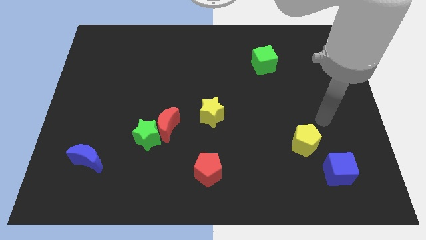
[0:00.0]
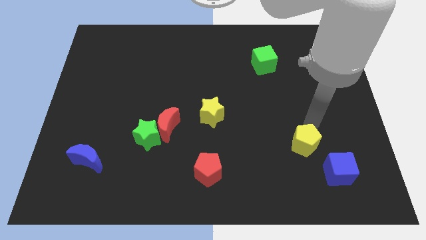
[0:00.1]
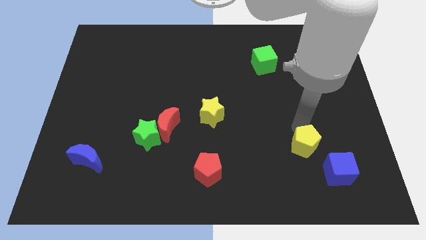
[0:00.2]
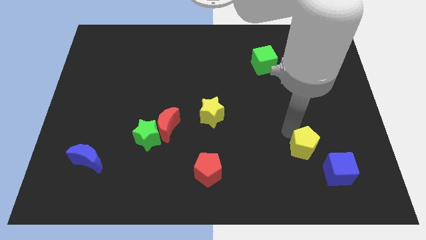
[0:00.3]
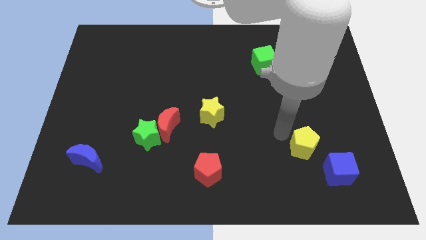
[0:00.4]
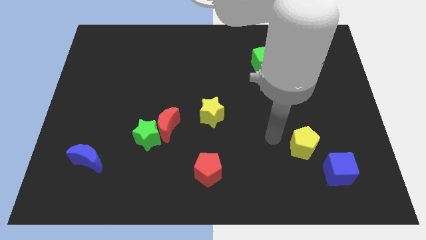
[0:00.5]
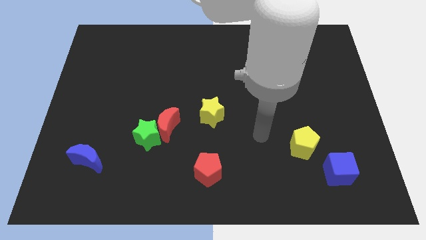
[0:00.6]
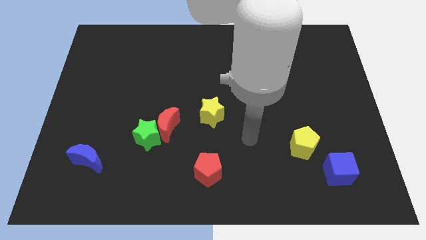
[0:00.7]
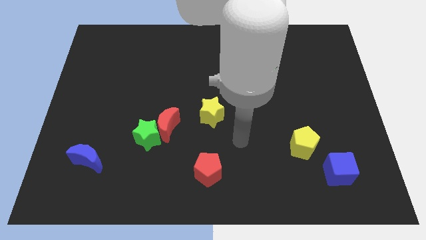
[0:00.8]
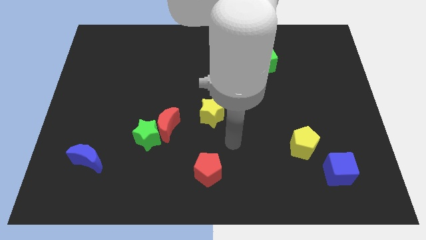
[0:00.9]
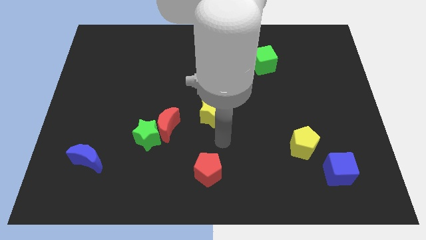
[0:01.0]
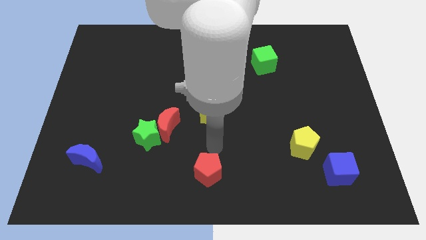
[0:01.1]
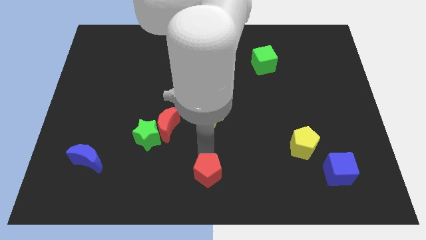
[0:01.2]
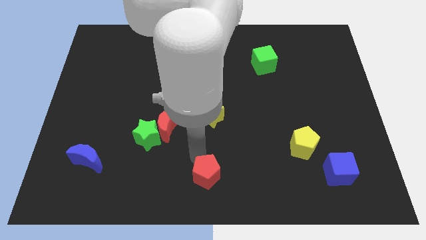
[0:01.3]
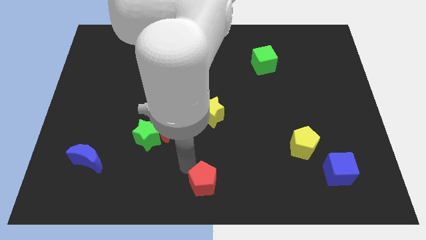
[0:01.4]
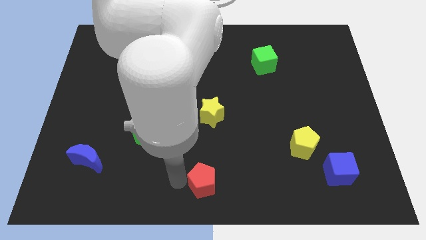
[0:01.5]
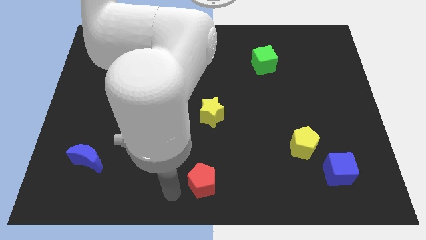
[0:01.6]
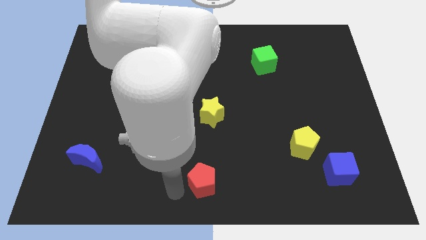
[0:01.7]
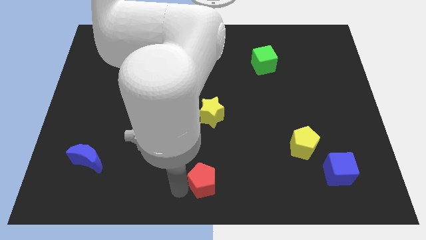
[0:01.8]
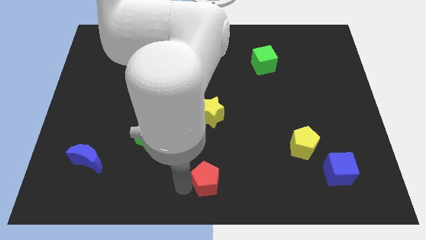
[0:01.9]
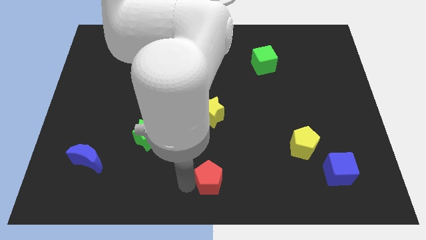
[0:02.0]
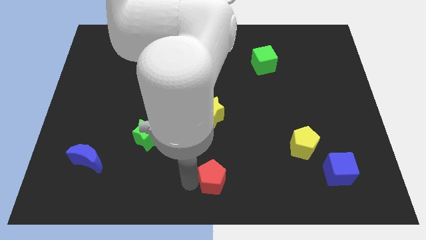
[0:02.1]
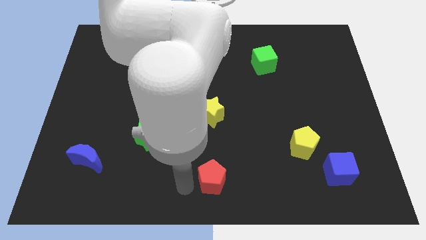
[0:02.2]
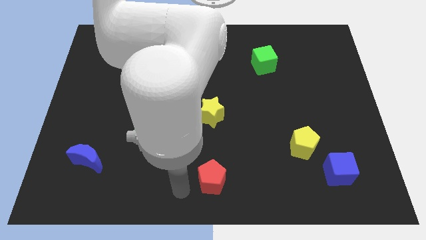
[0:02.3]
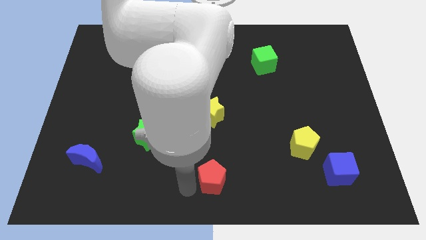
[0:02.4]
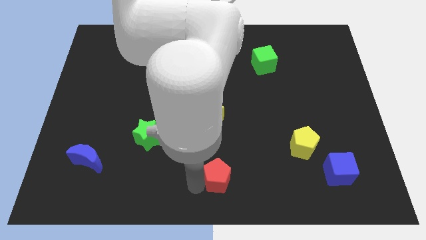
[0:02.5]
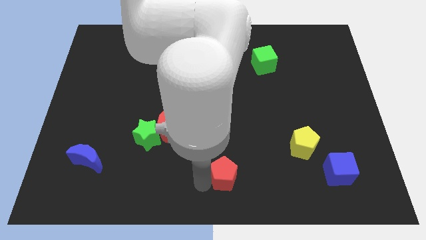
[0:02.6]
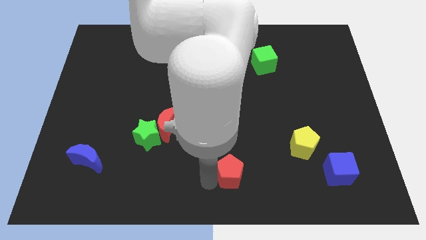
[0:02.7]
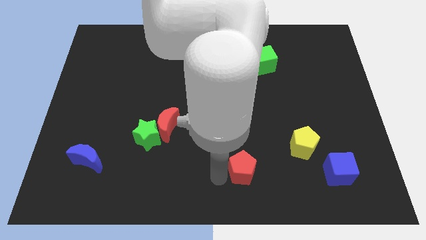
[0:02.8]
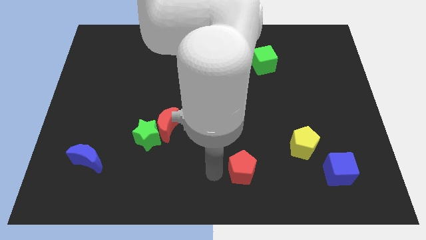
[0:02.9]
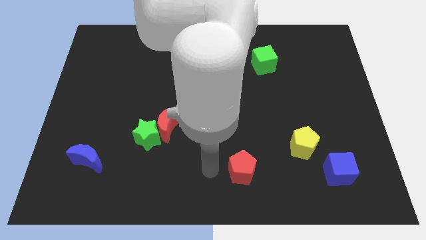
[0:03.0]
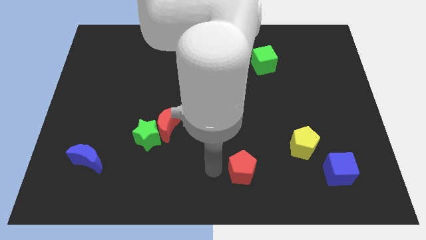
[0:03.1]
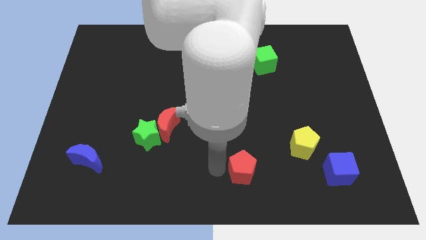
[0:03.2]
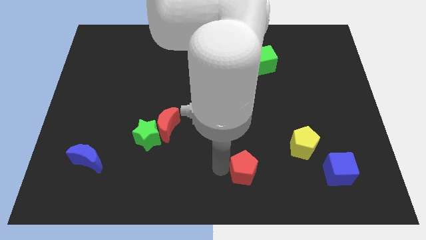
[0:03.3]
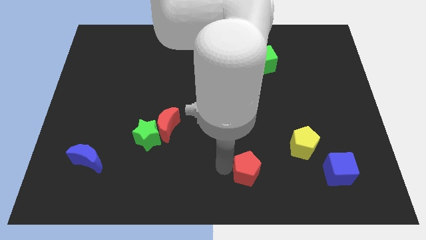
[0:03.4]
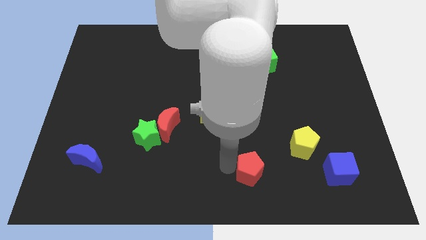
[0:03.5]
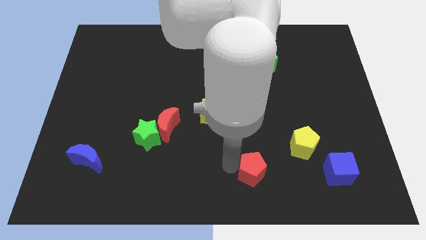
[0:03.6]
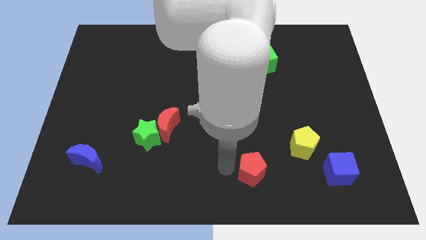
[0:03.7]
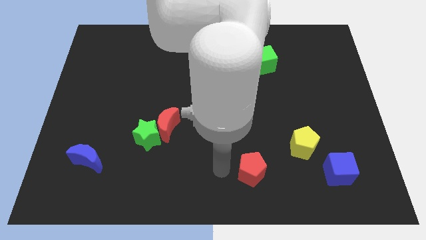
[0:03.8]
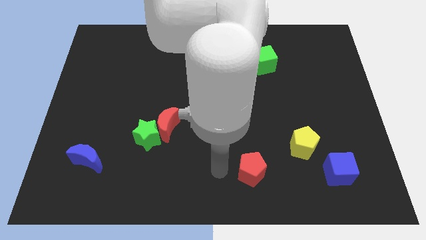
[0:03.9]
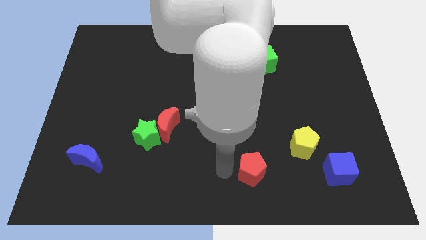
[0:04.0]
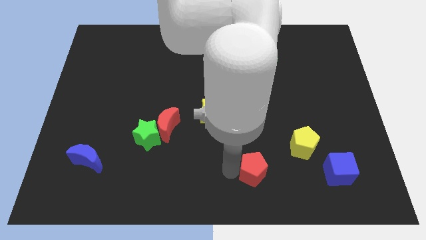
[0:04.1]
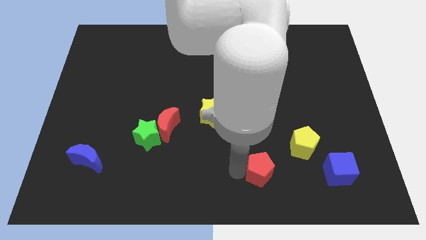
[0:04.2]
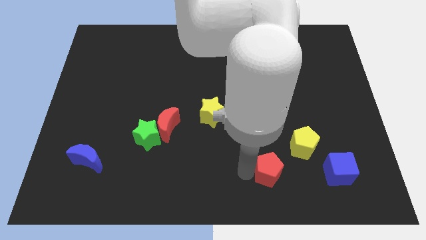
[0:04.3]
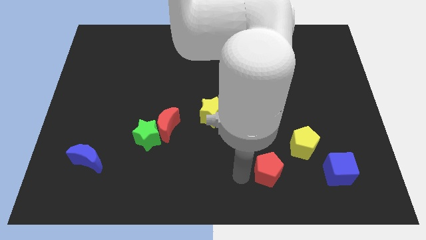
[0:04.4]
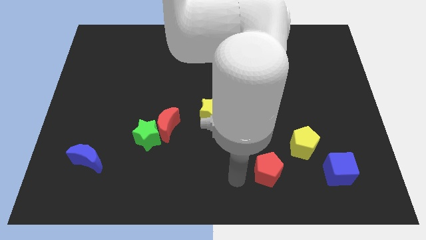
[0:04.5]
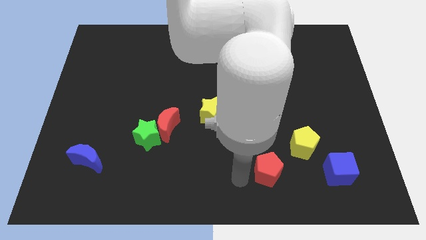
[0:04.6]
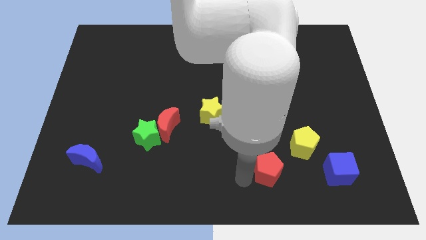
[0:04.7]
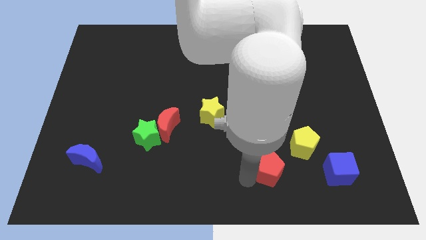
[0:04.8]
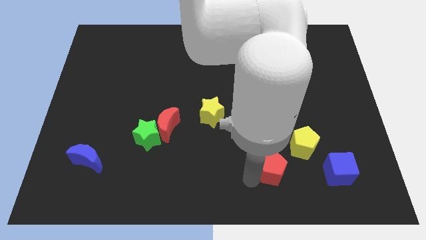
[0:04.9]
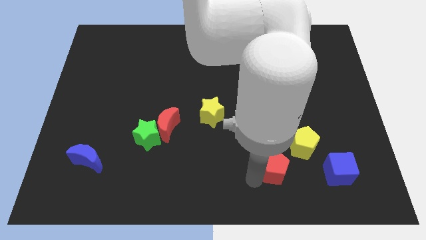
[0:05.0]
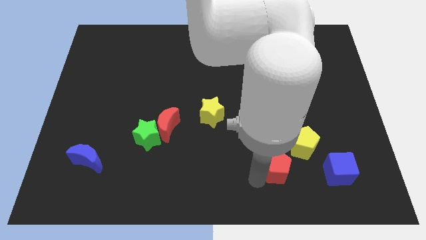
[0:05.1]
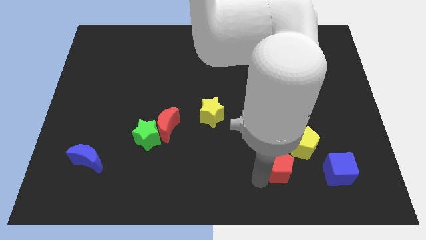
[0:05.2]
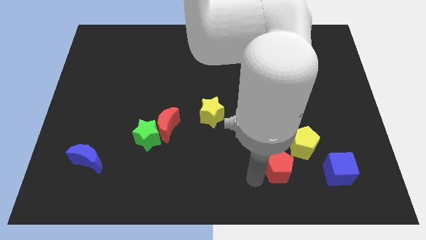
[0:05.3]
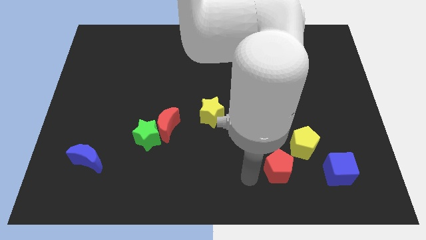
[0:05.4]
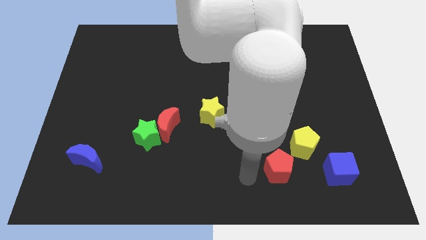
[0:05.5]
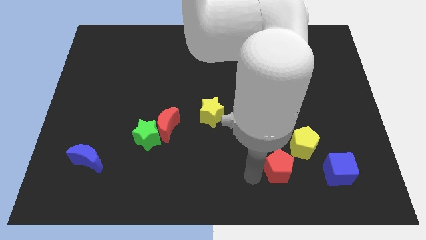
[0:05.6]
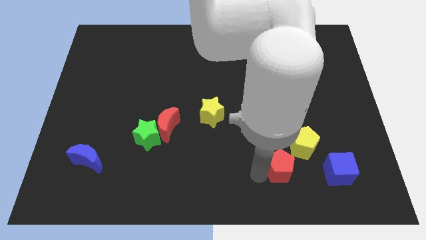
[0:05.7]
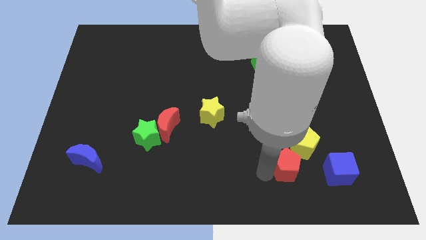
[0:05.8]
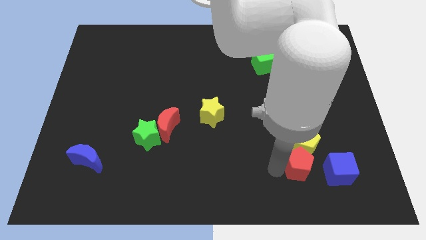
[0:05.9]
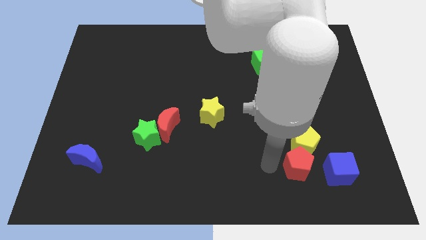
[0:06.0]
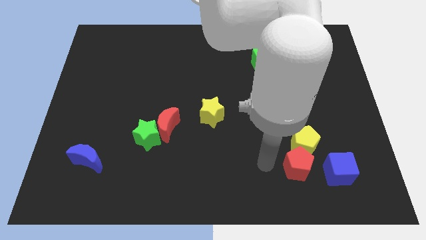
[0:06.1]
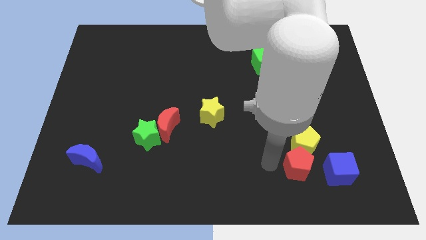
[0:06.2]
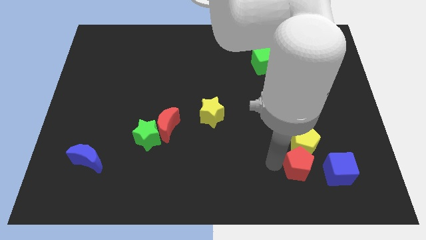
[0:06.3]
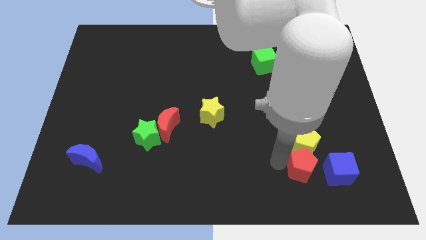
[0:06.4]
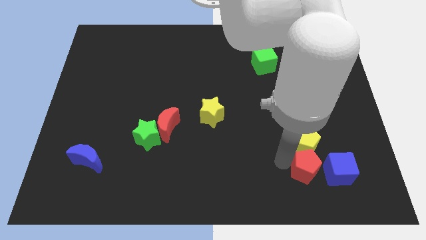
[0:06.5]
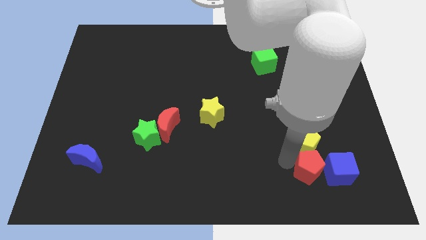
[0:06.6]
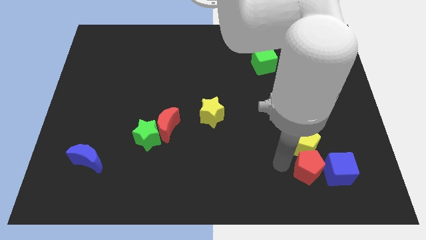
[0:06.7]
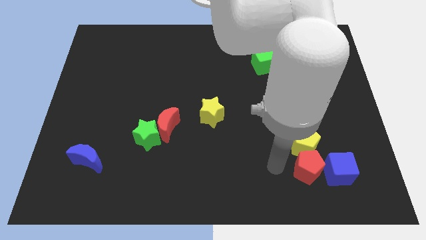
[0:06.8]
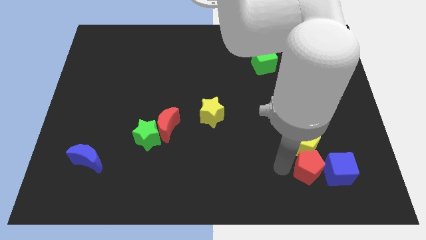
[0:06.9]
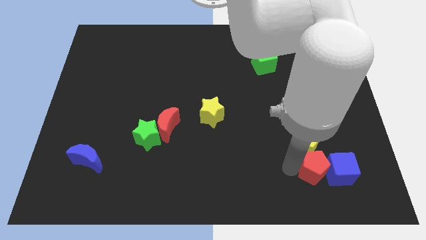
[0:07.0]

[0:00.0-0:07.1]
push the red pentagon towards the blue cube
